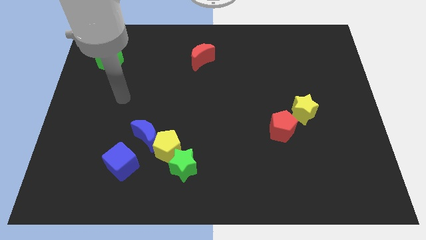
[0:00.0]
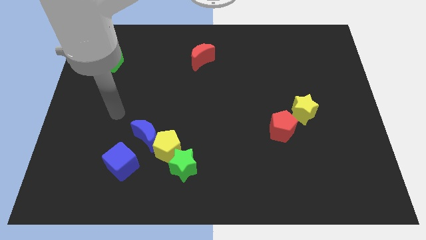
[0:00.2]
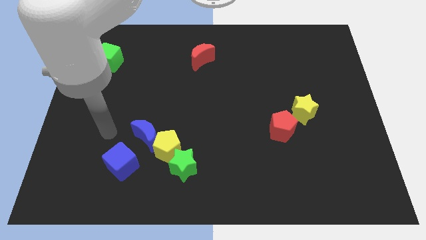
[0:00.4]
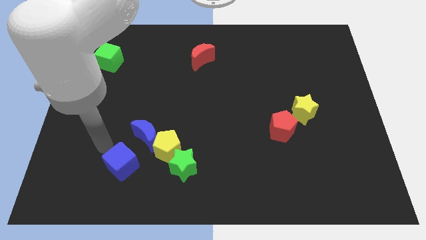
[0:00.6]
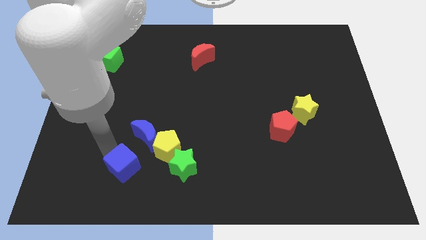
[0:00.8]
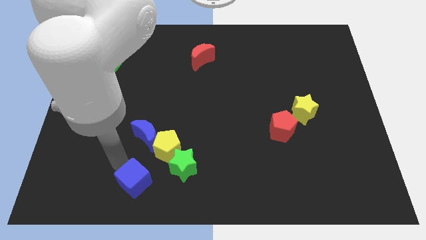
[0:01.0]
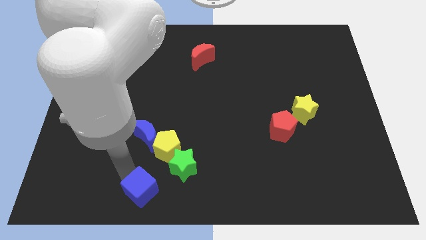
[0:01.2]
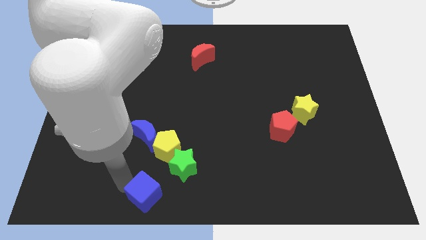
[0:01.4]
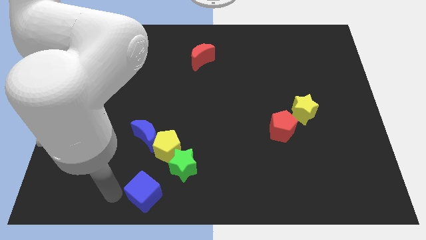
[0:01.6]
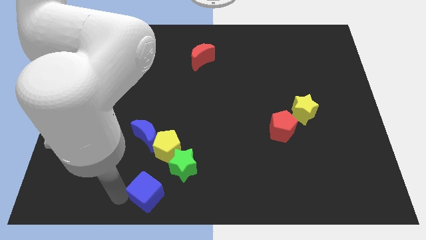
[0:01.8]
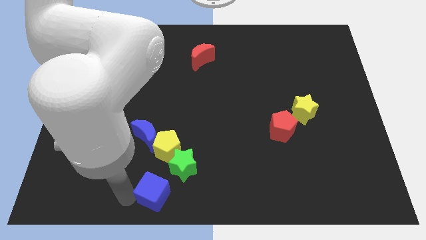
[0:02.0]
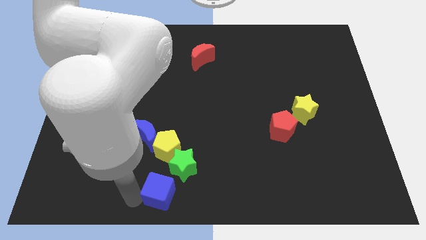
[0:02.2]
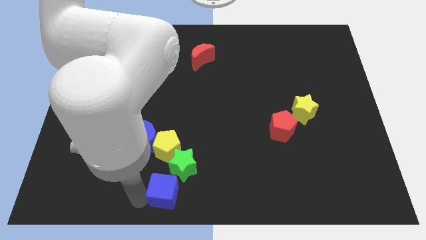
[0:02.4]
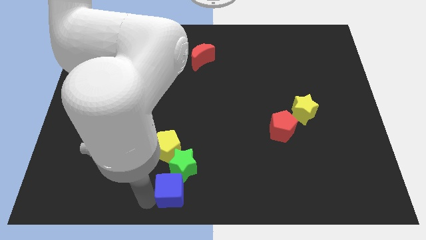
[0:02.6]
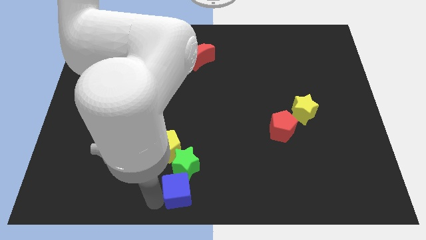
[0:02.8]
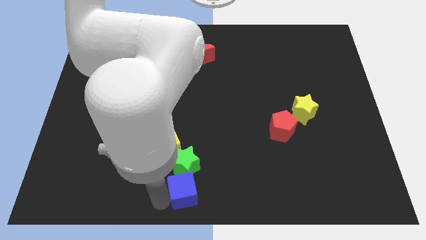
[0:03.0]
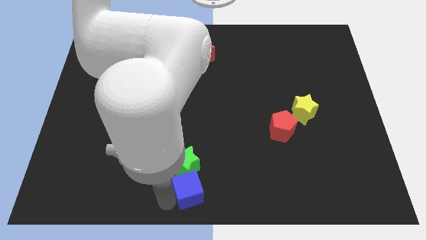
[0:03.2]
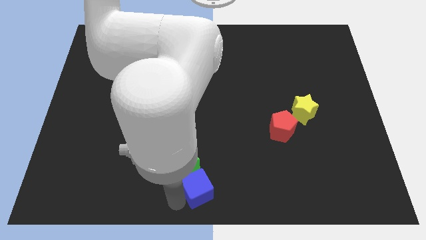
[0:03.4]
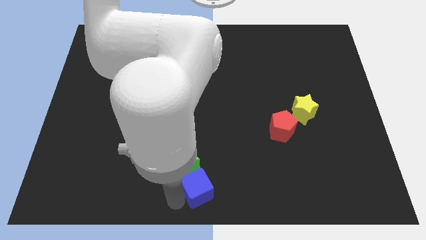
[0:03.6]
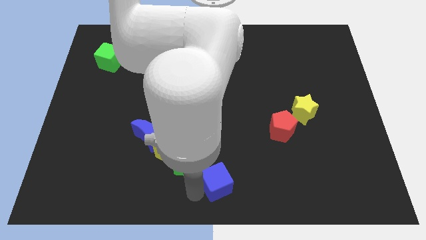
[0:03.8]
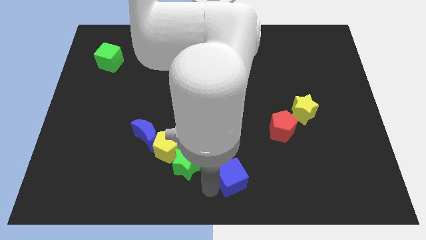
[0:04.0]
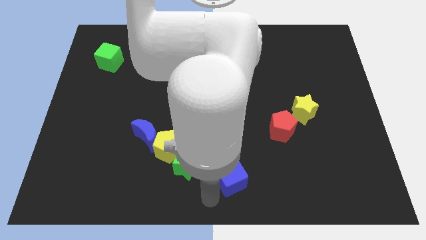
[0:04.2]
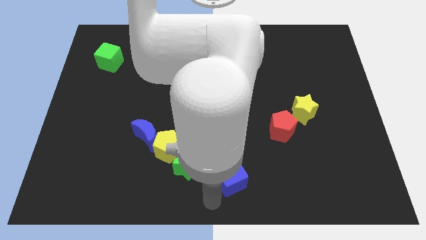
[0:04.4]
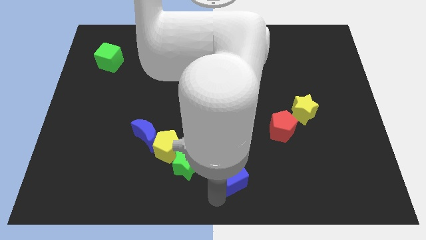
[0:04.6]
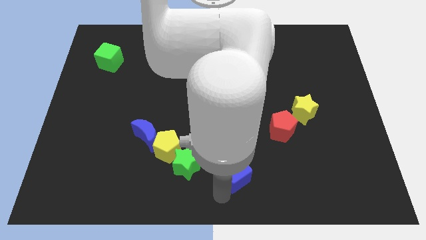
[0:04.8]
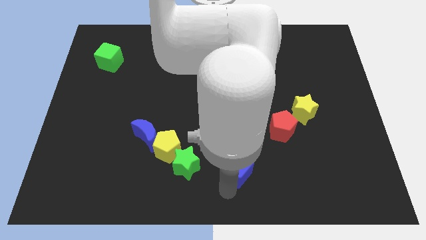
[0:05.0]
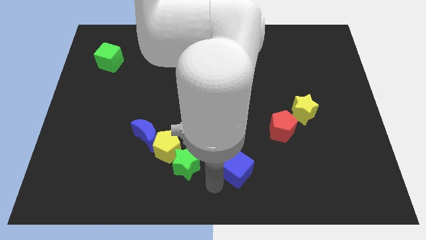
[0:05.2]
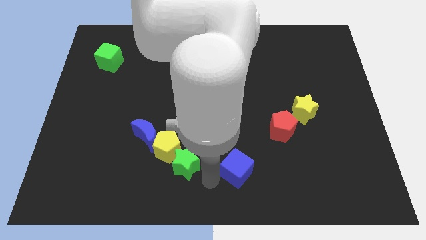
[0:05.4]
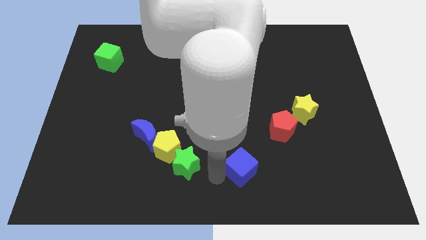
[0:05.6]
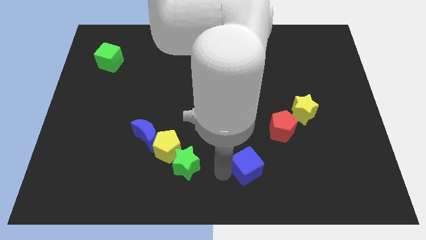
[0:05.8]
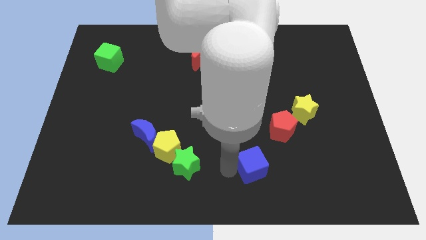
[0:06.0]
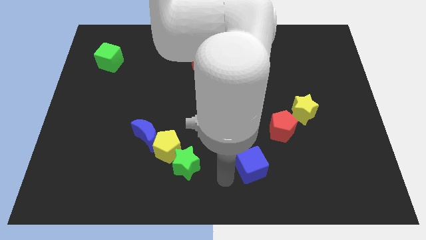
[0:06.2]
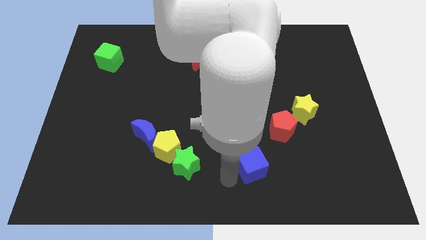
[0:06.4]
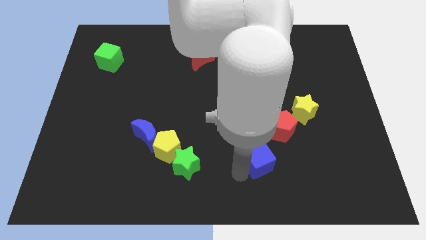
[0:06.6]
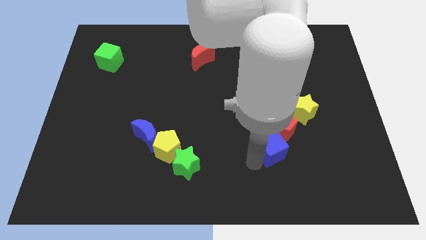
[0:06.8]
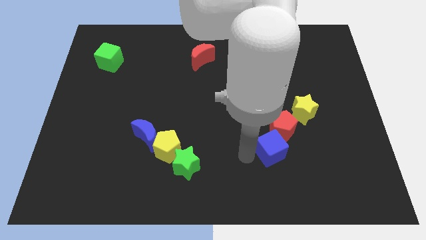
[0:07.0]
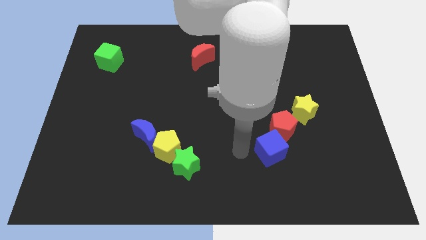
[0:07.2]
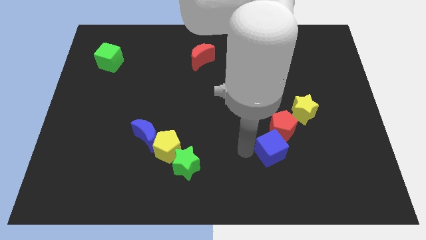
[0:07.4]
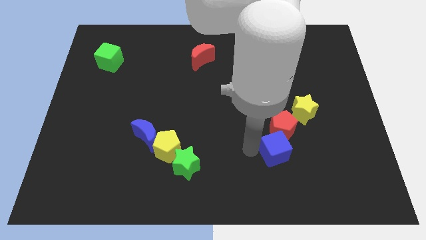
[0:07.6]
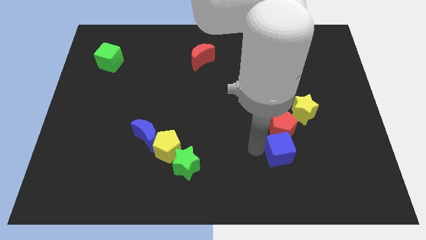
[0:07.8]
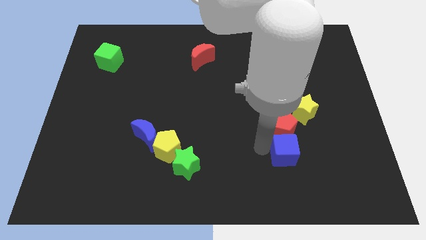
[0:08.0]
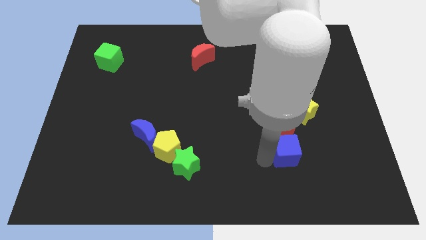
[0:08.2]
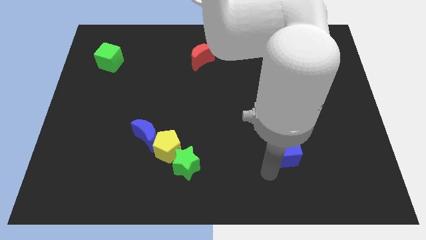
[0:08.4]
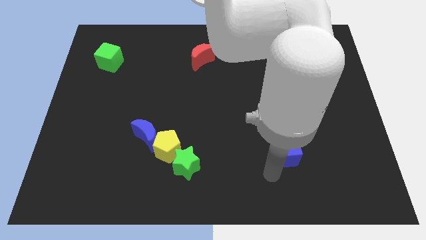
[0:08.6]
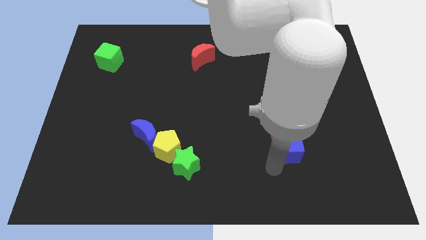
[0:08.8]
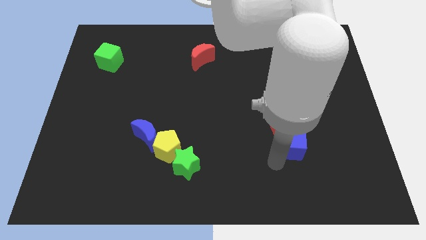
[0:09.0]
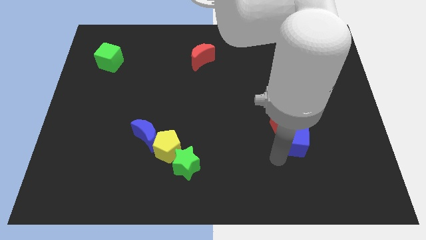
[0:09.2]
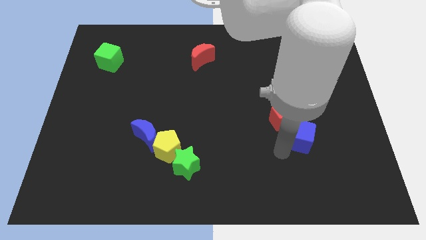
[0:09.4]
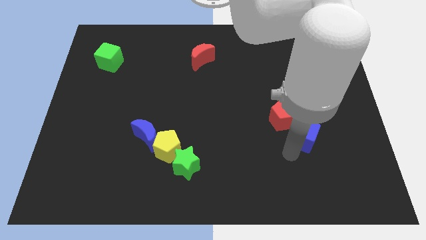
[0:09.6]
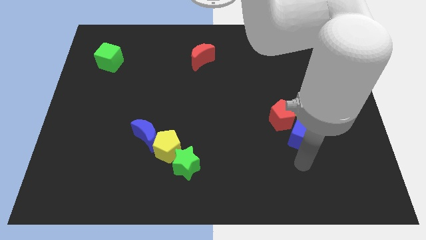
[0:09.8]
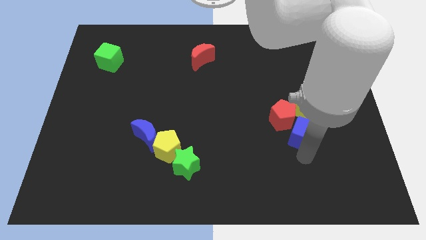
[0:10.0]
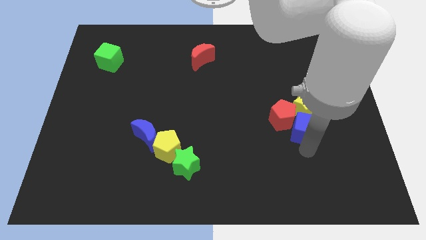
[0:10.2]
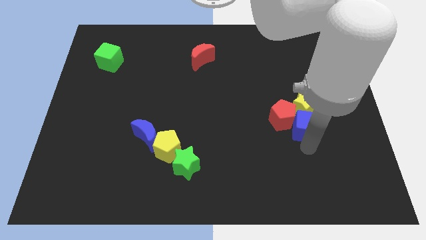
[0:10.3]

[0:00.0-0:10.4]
slide the blue cube next to the yellow star

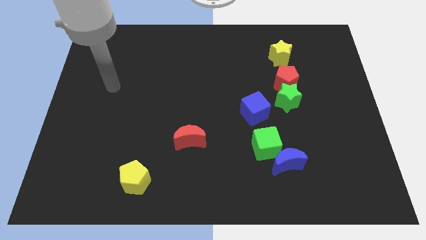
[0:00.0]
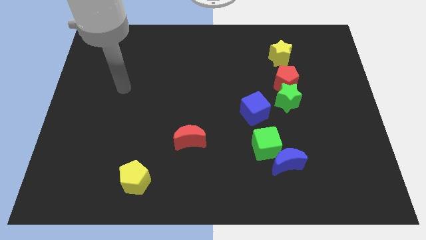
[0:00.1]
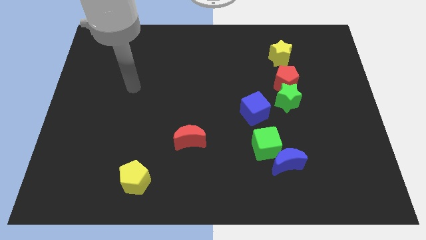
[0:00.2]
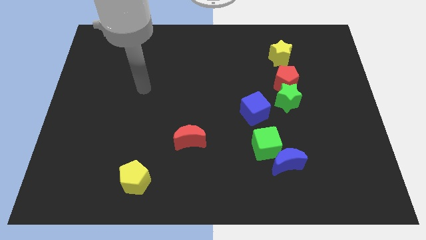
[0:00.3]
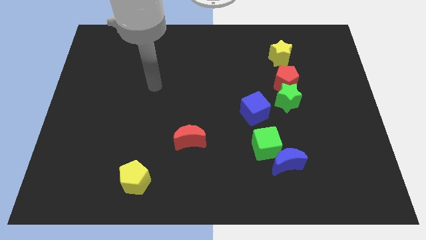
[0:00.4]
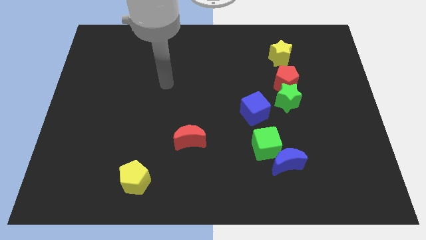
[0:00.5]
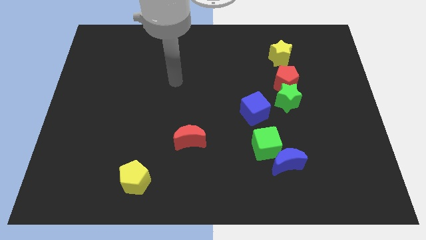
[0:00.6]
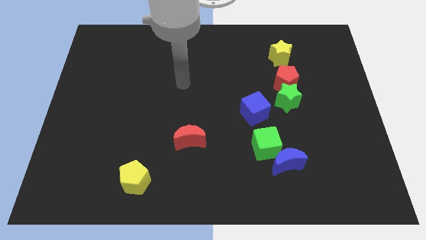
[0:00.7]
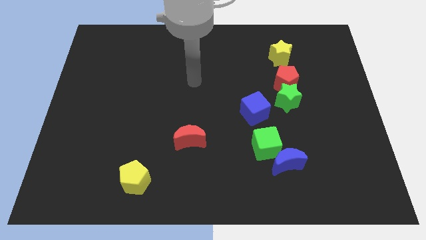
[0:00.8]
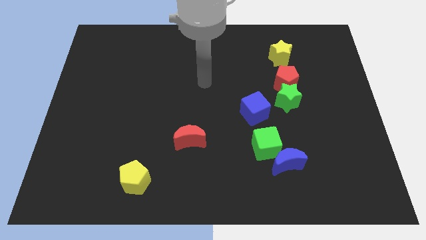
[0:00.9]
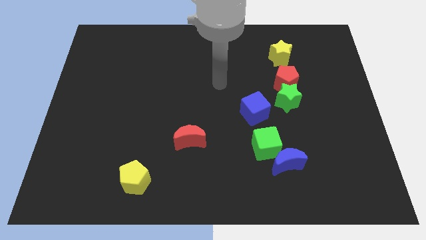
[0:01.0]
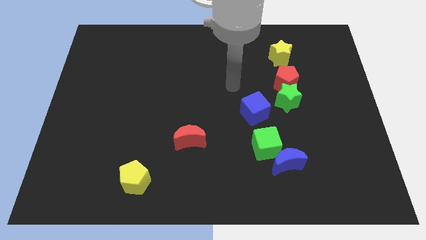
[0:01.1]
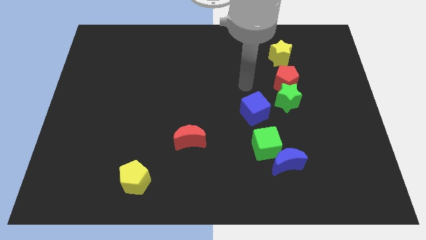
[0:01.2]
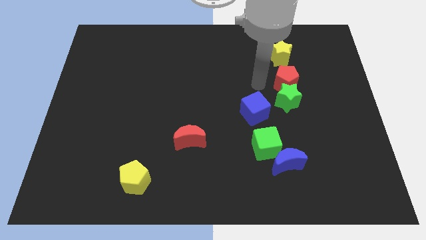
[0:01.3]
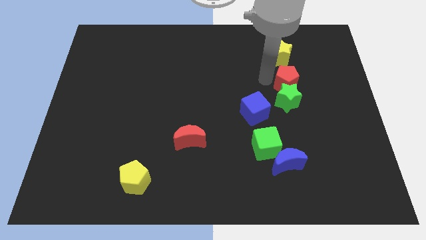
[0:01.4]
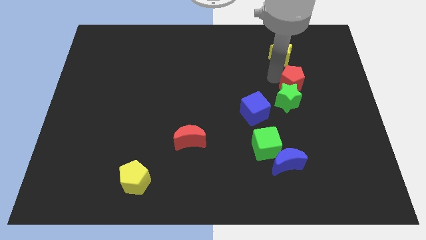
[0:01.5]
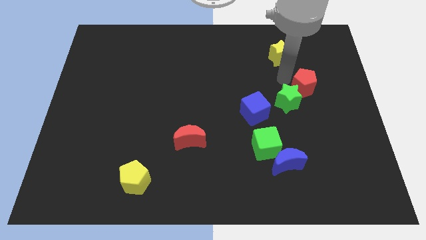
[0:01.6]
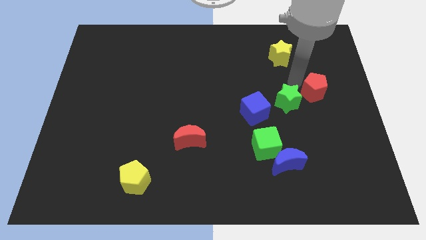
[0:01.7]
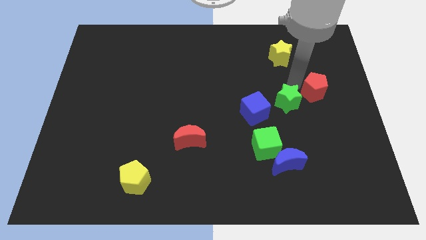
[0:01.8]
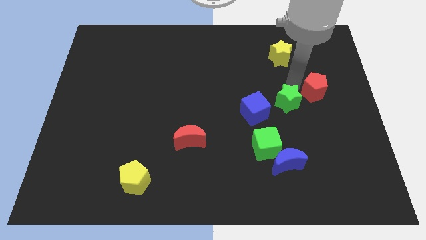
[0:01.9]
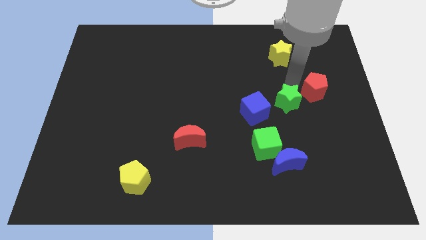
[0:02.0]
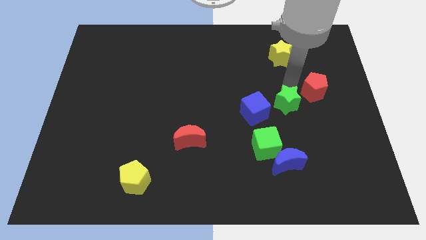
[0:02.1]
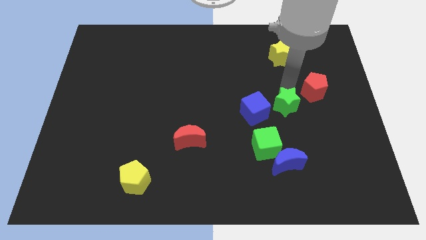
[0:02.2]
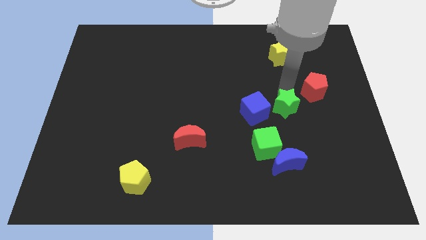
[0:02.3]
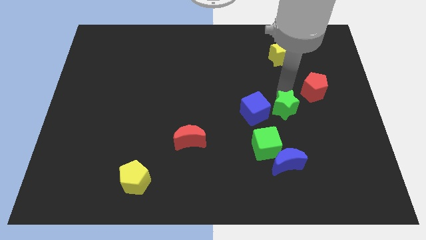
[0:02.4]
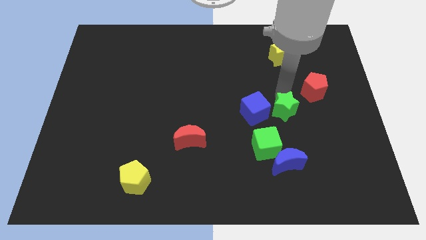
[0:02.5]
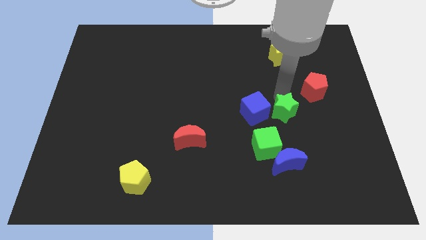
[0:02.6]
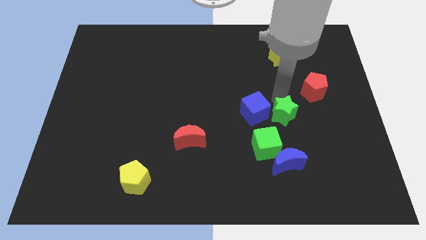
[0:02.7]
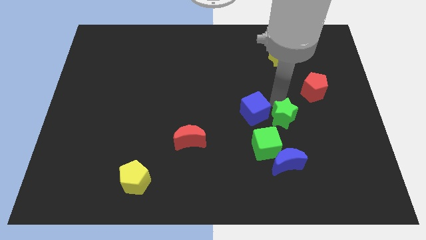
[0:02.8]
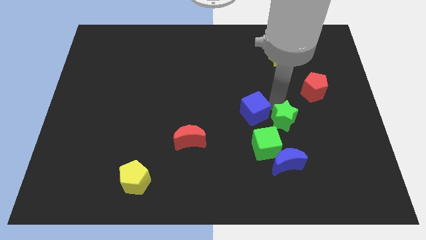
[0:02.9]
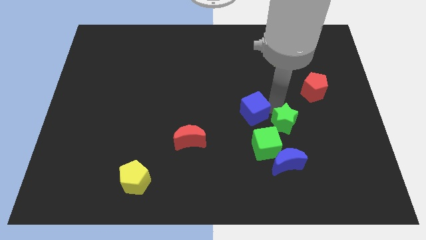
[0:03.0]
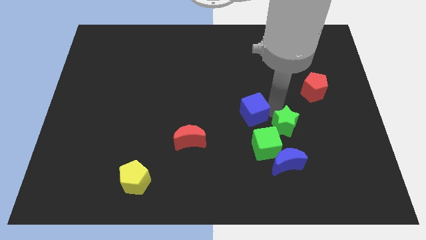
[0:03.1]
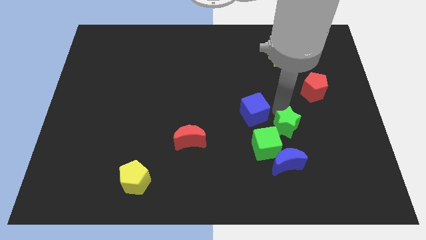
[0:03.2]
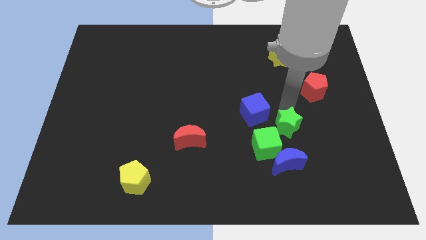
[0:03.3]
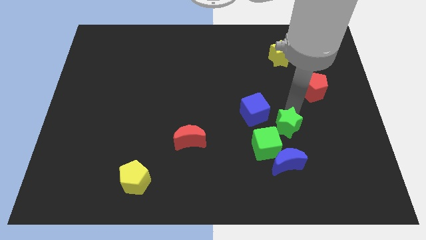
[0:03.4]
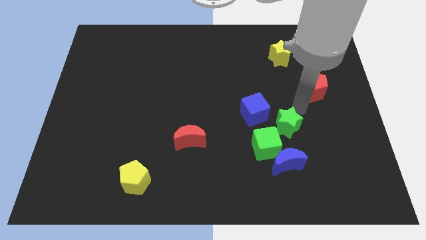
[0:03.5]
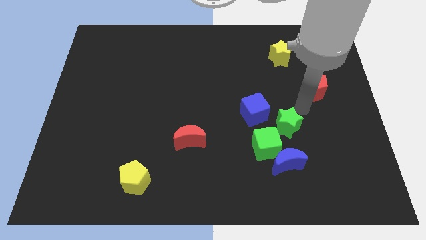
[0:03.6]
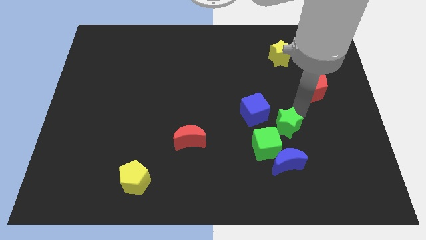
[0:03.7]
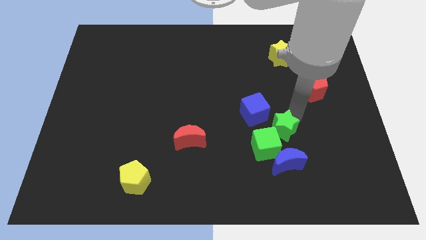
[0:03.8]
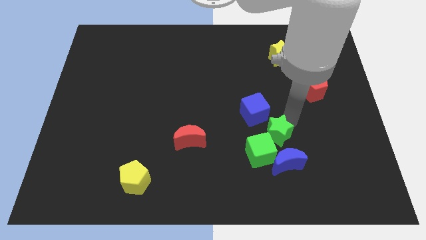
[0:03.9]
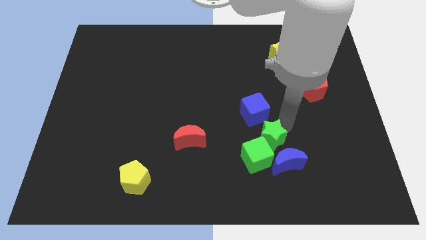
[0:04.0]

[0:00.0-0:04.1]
put the green star to the green cube
